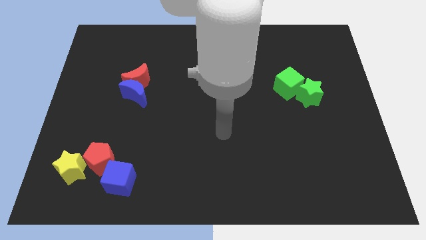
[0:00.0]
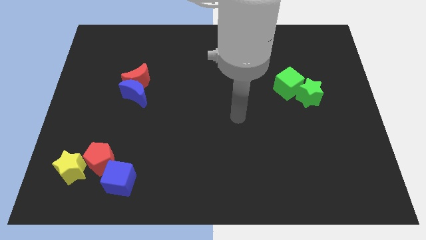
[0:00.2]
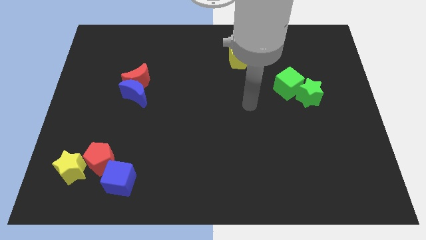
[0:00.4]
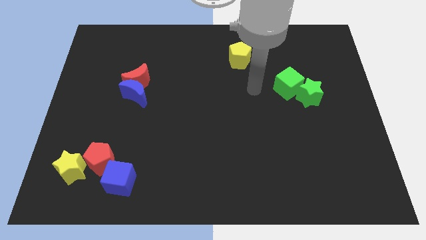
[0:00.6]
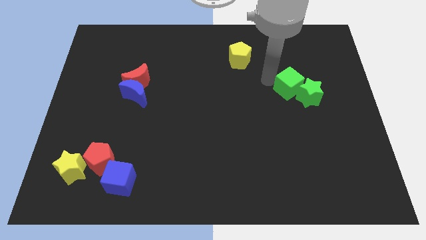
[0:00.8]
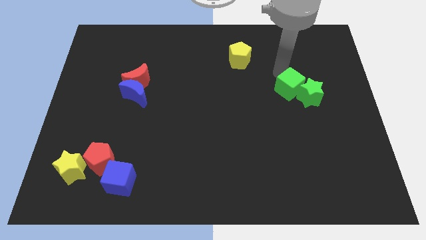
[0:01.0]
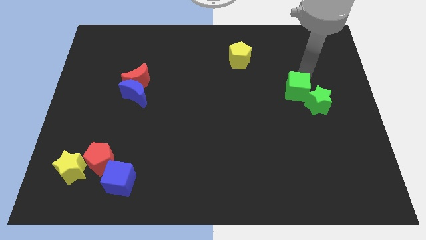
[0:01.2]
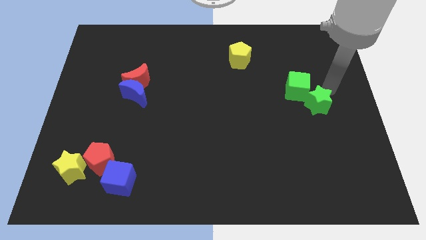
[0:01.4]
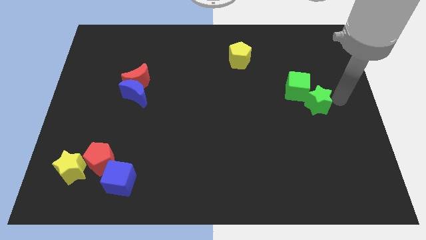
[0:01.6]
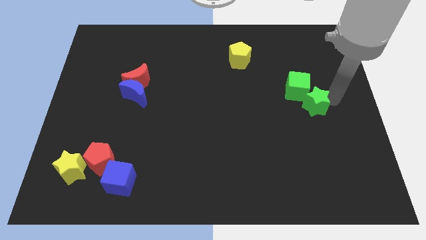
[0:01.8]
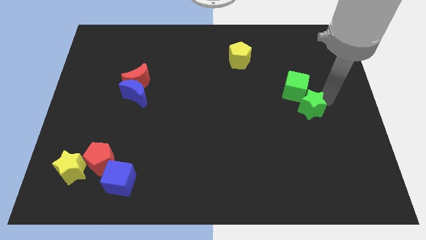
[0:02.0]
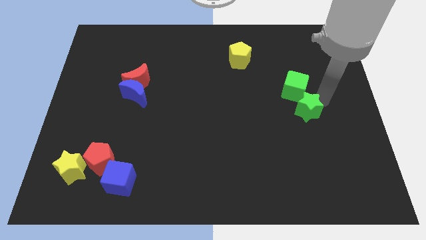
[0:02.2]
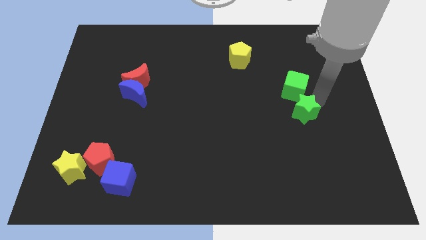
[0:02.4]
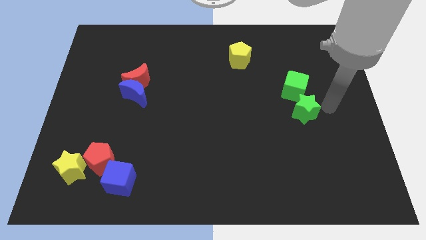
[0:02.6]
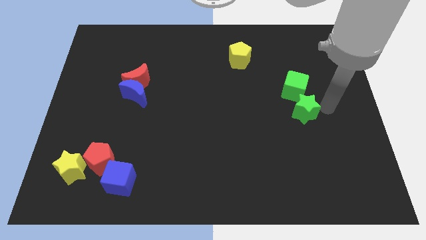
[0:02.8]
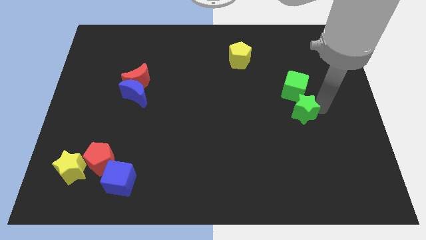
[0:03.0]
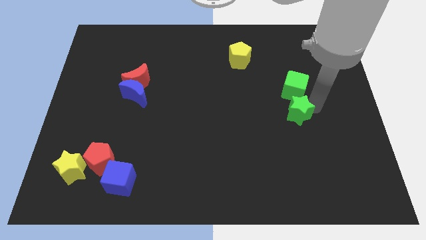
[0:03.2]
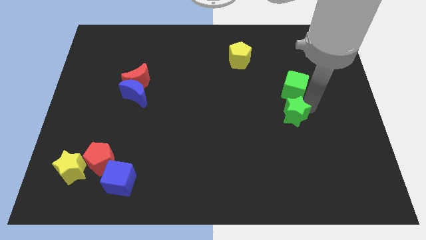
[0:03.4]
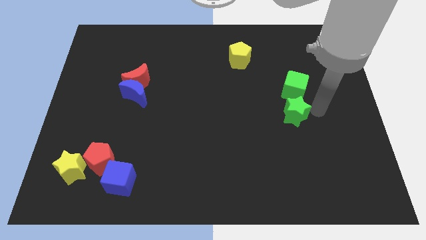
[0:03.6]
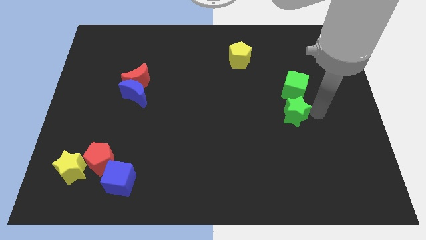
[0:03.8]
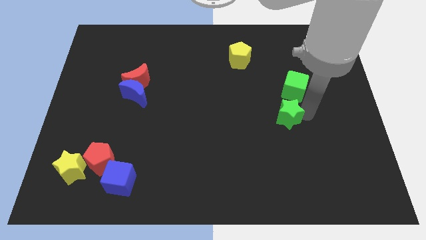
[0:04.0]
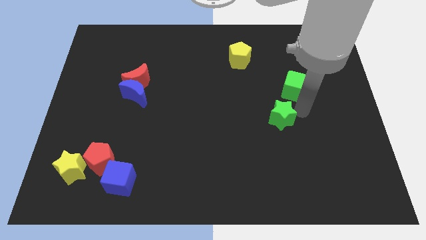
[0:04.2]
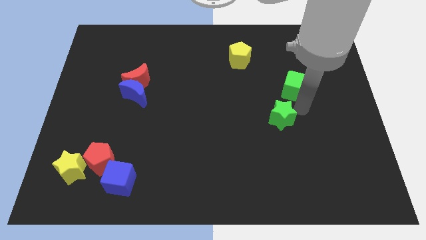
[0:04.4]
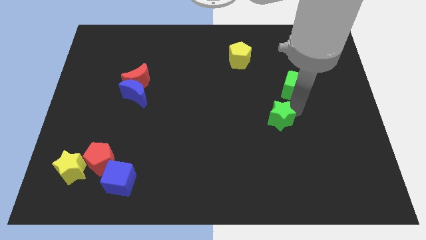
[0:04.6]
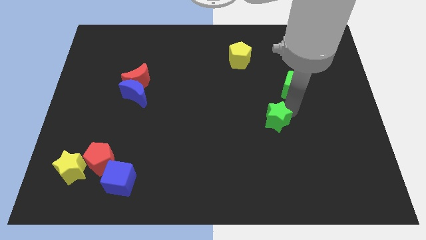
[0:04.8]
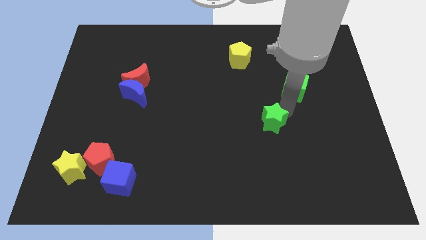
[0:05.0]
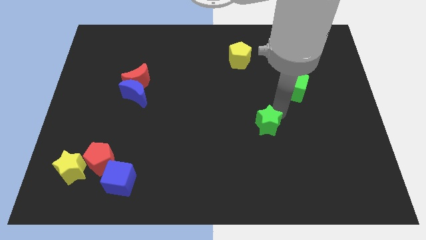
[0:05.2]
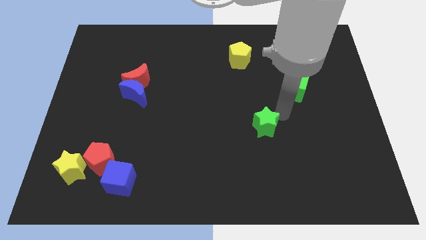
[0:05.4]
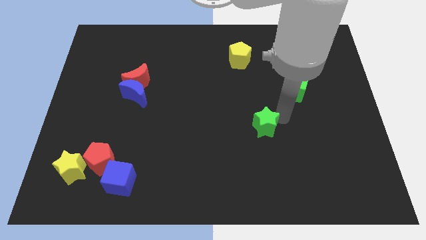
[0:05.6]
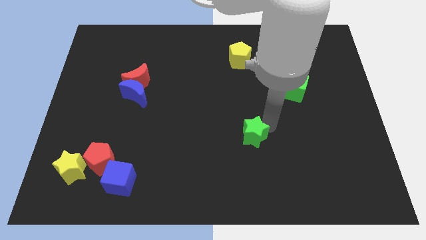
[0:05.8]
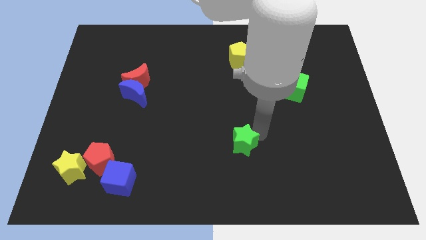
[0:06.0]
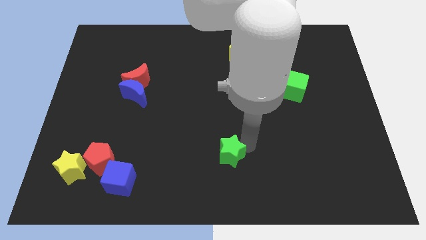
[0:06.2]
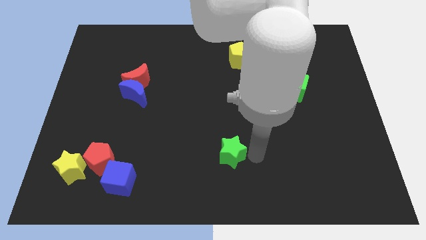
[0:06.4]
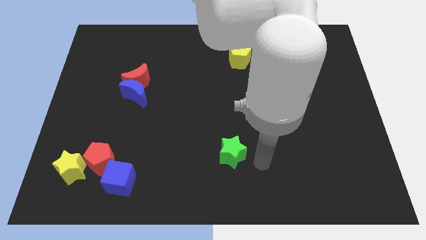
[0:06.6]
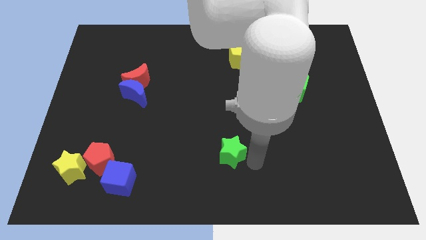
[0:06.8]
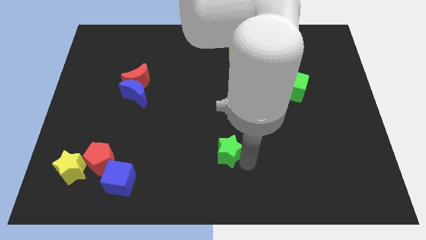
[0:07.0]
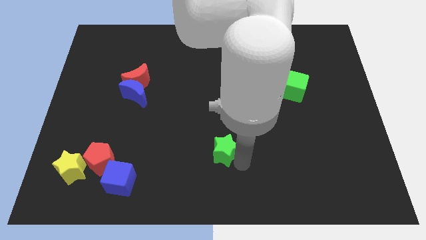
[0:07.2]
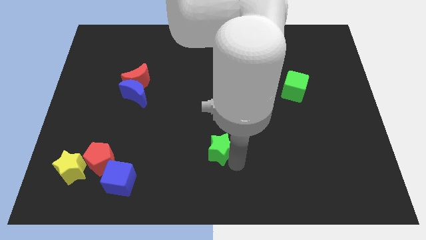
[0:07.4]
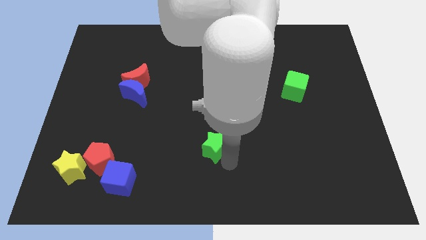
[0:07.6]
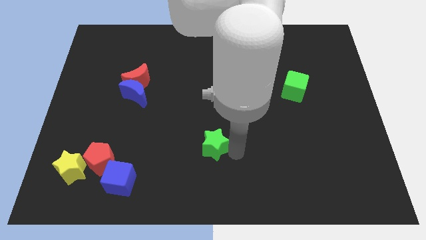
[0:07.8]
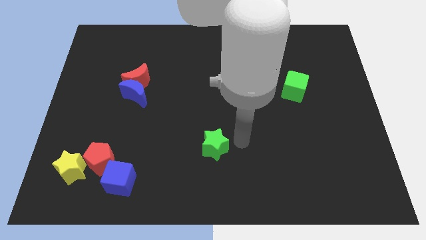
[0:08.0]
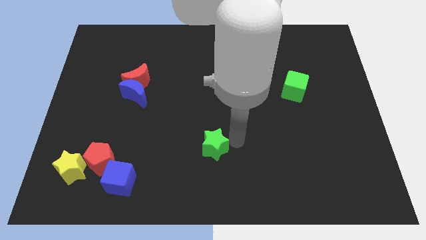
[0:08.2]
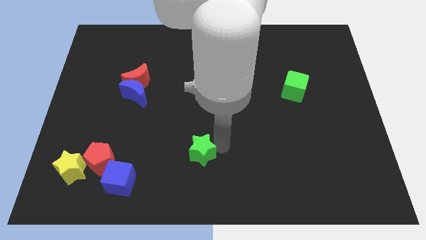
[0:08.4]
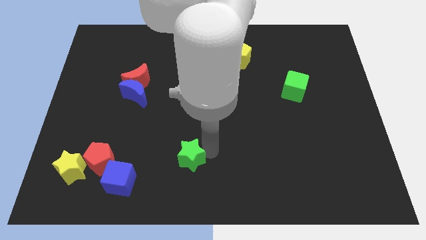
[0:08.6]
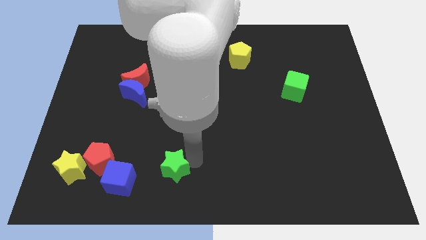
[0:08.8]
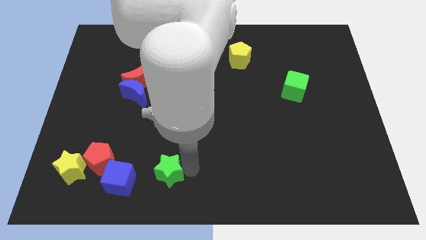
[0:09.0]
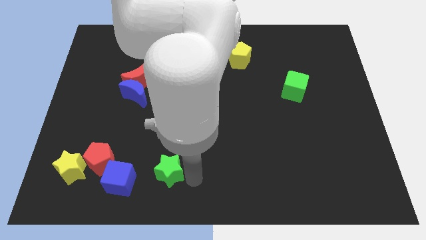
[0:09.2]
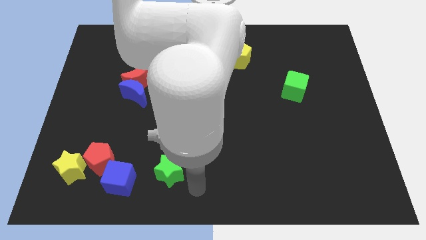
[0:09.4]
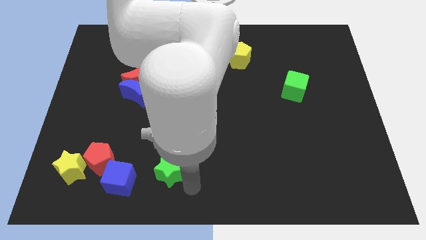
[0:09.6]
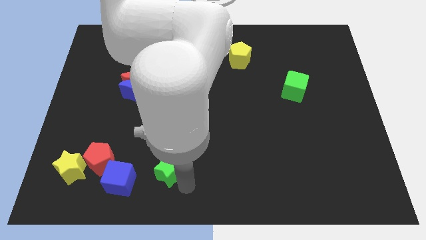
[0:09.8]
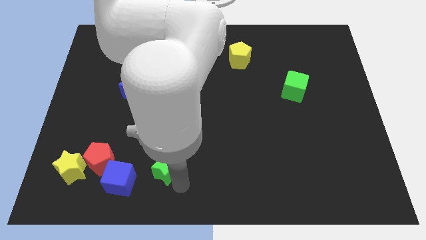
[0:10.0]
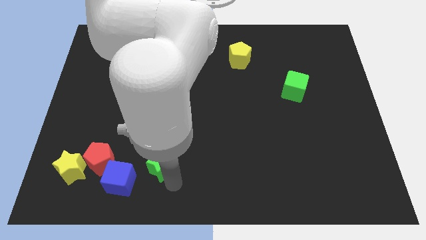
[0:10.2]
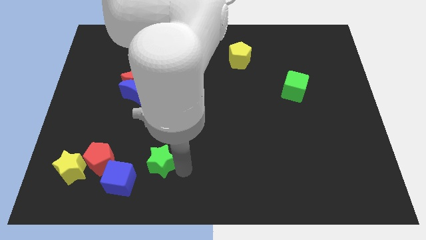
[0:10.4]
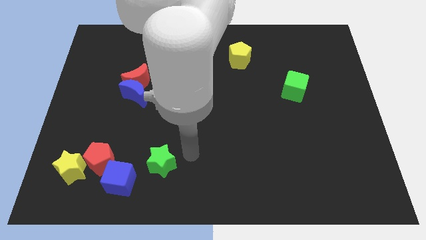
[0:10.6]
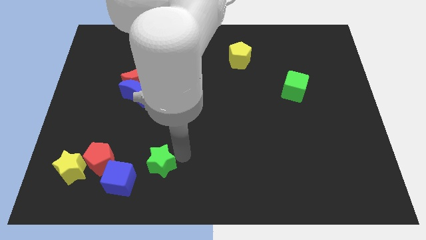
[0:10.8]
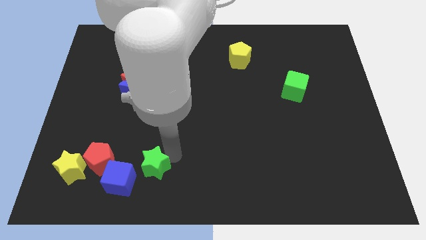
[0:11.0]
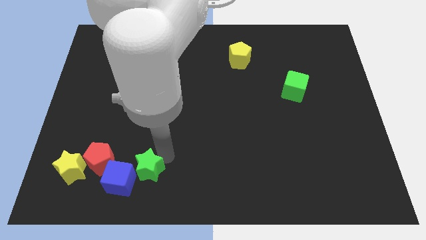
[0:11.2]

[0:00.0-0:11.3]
move the green star towards the blue cube

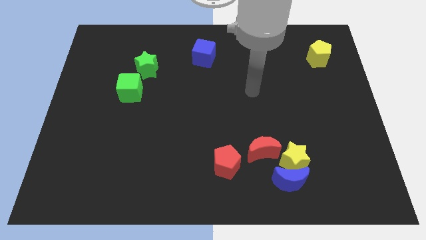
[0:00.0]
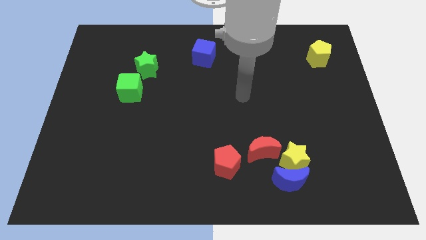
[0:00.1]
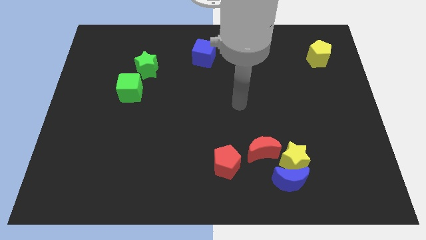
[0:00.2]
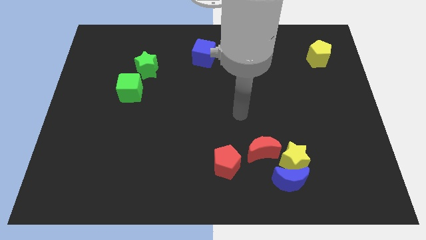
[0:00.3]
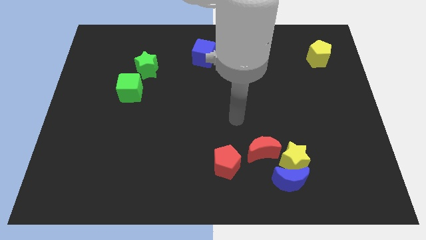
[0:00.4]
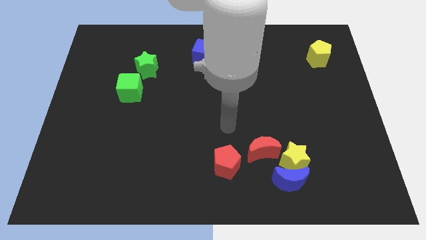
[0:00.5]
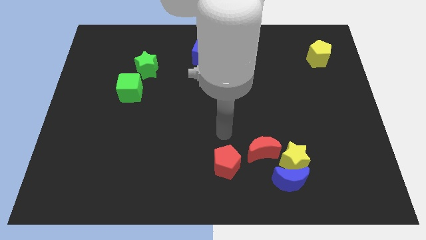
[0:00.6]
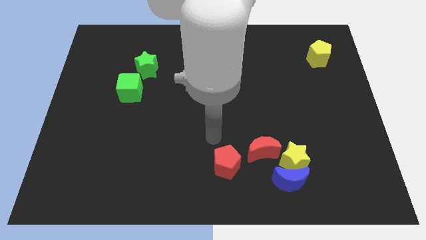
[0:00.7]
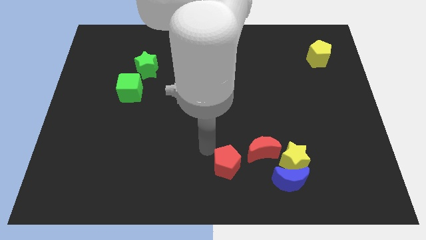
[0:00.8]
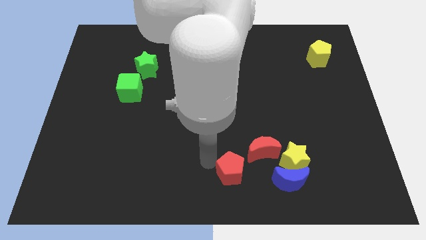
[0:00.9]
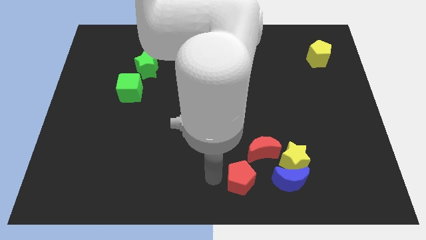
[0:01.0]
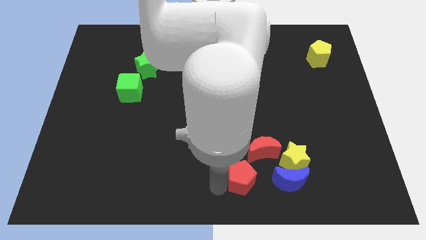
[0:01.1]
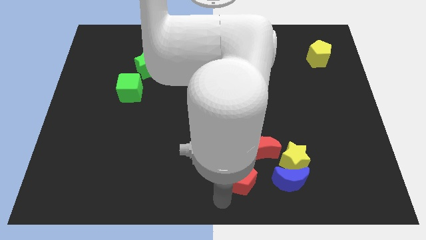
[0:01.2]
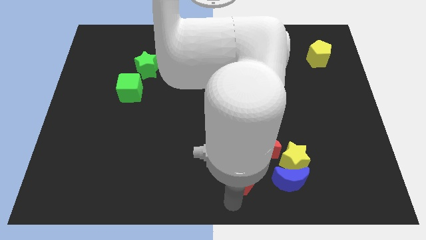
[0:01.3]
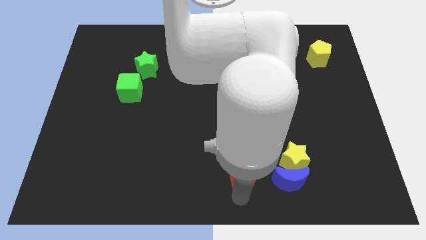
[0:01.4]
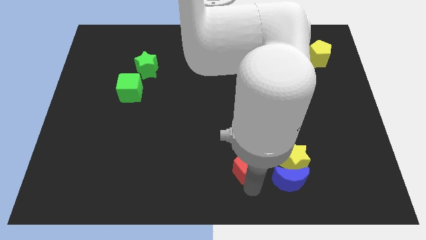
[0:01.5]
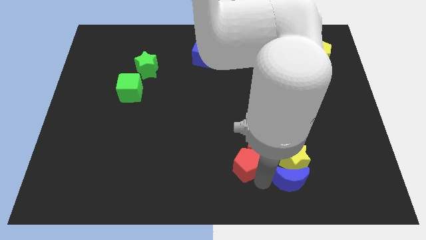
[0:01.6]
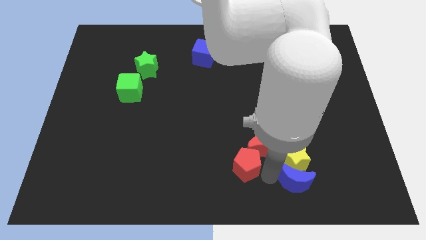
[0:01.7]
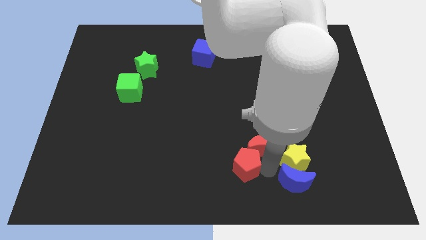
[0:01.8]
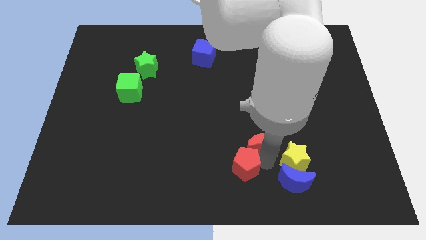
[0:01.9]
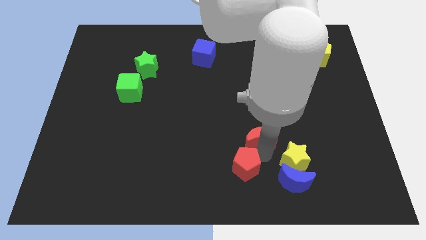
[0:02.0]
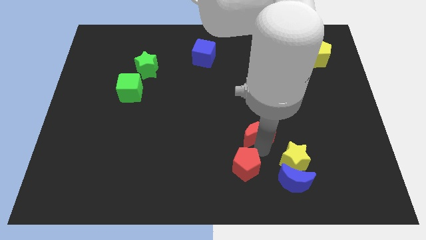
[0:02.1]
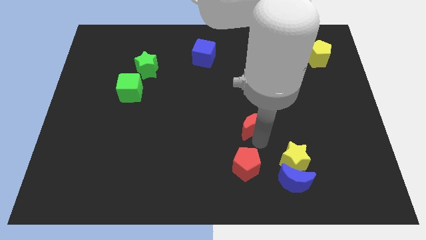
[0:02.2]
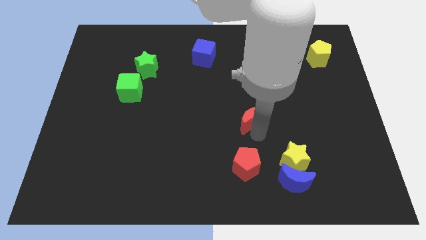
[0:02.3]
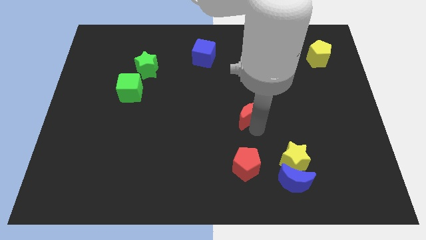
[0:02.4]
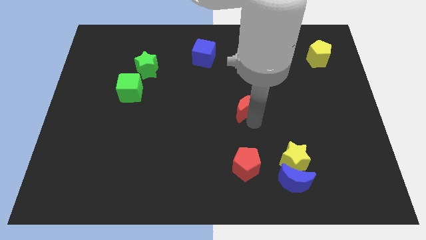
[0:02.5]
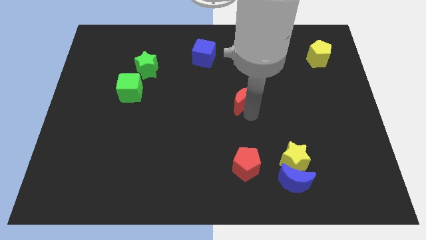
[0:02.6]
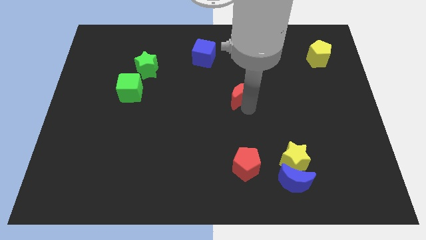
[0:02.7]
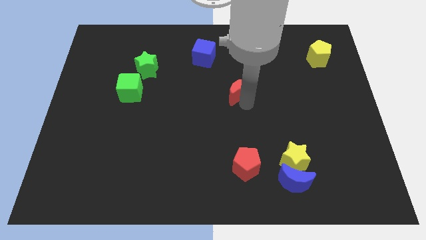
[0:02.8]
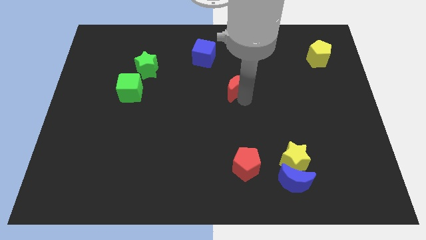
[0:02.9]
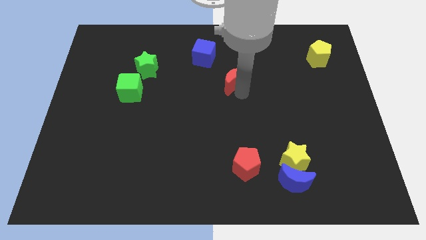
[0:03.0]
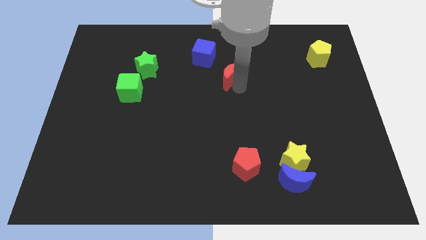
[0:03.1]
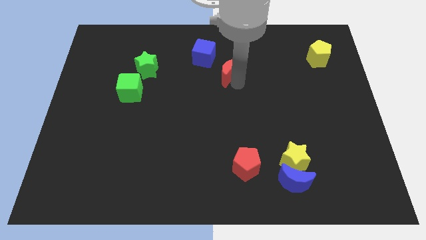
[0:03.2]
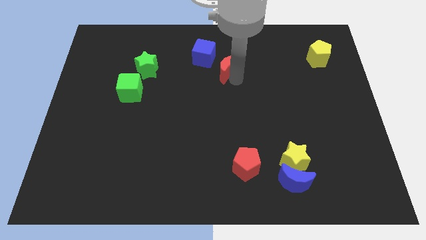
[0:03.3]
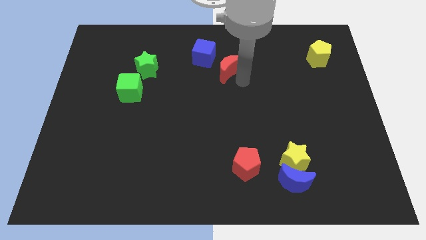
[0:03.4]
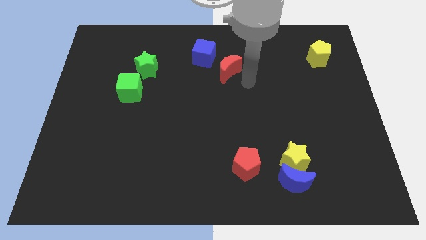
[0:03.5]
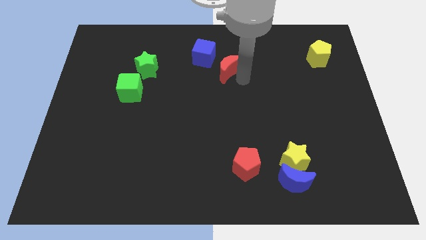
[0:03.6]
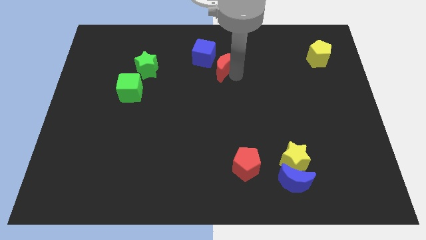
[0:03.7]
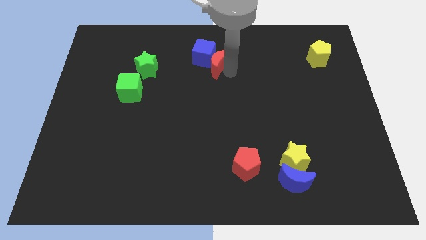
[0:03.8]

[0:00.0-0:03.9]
put the red moon to the blue cube
